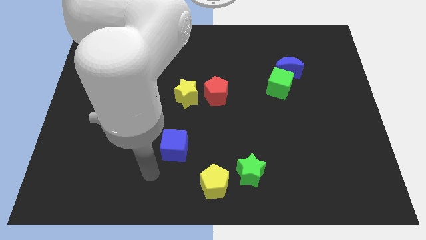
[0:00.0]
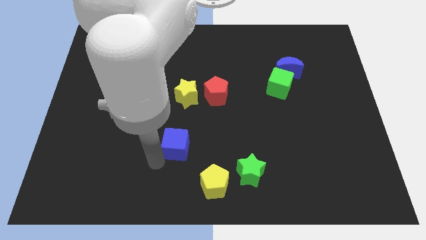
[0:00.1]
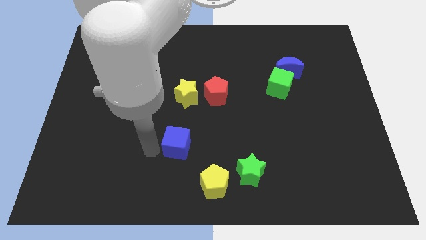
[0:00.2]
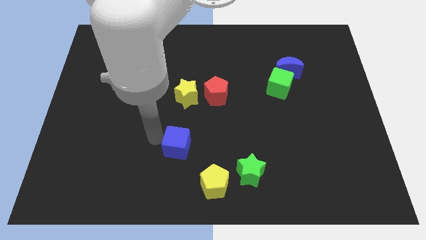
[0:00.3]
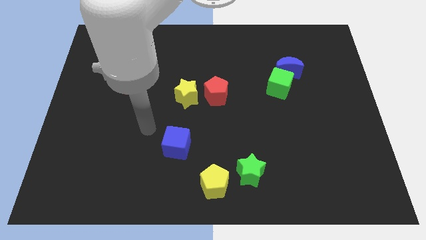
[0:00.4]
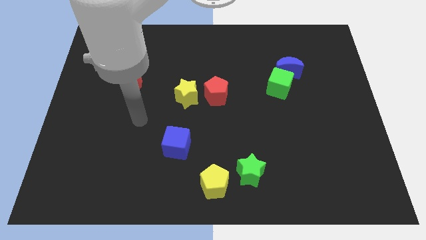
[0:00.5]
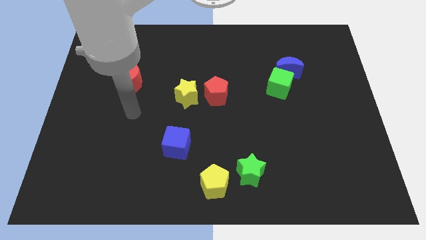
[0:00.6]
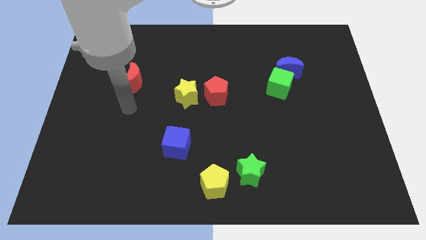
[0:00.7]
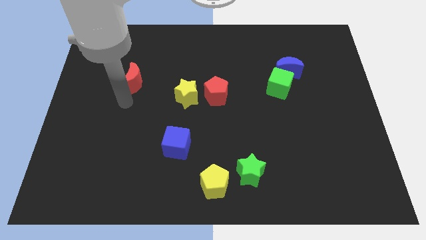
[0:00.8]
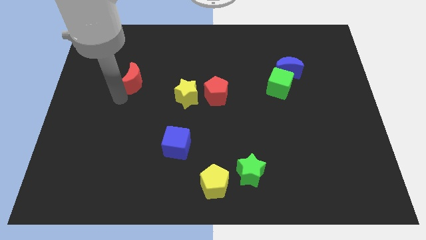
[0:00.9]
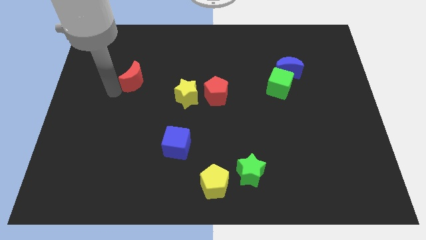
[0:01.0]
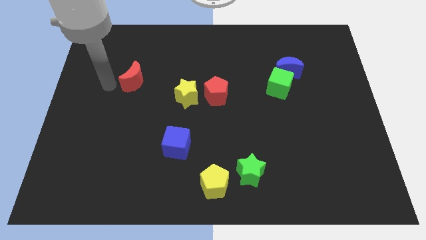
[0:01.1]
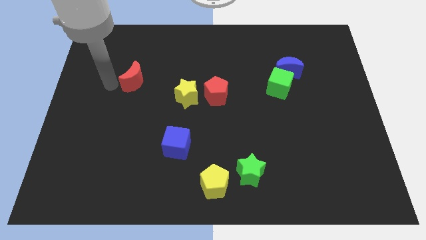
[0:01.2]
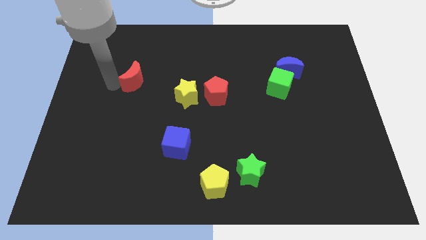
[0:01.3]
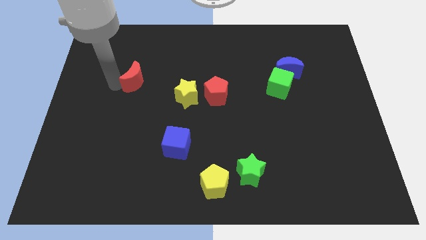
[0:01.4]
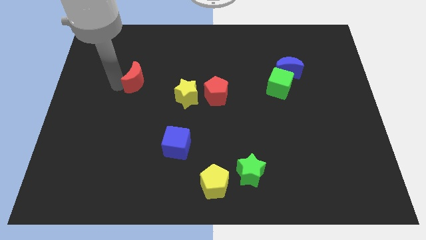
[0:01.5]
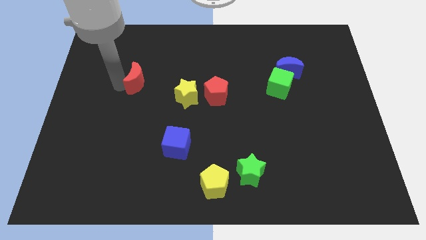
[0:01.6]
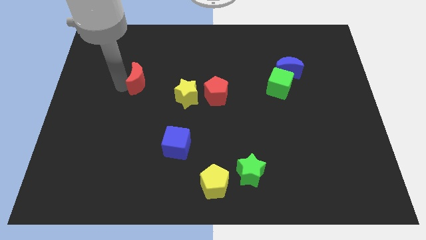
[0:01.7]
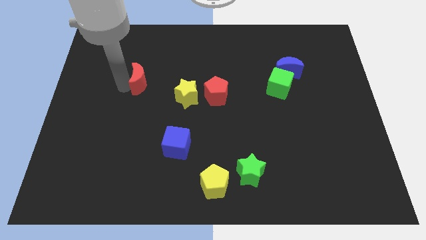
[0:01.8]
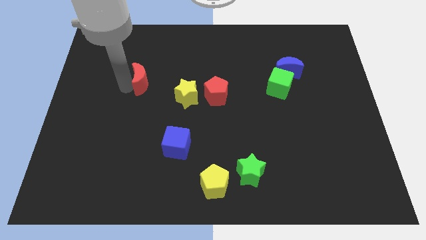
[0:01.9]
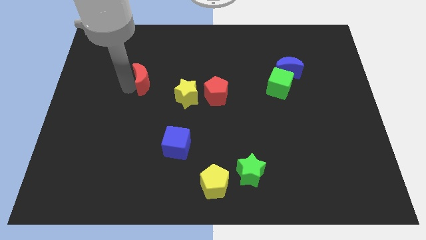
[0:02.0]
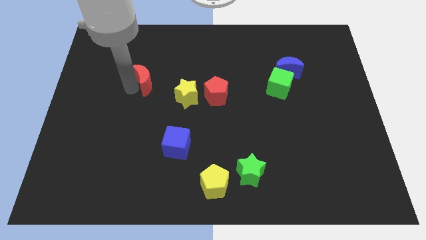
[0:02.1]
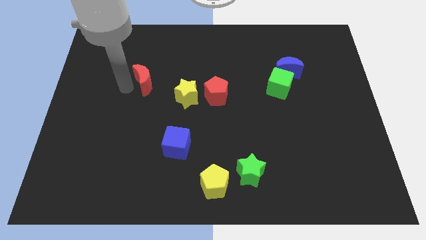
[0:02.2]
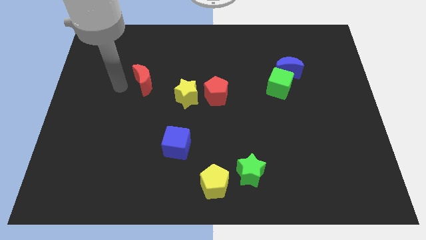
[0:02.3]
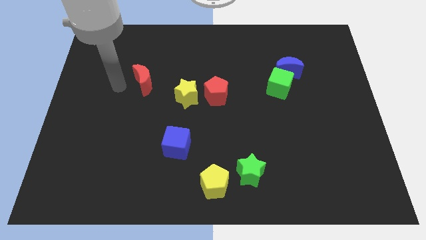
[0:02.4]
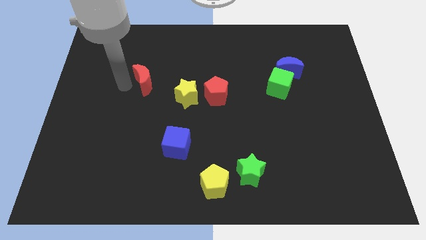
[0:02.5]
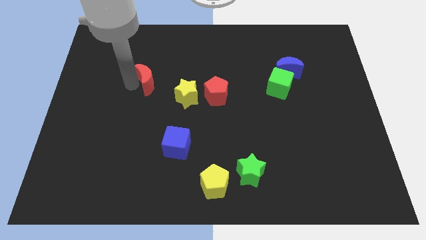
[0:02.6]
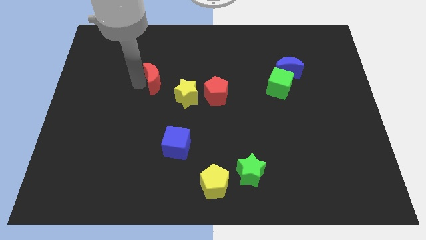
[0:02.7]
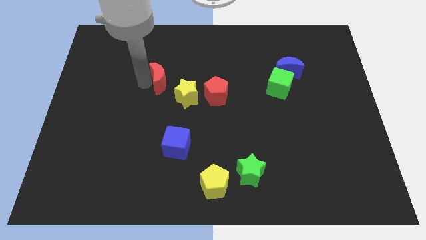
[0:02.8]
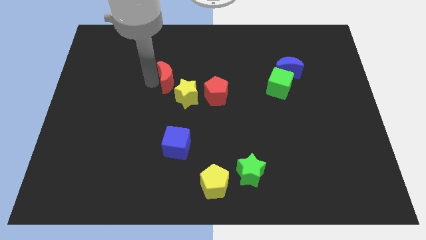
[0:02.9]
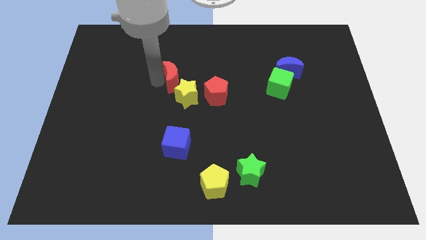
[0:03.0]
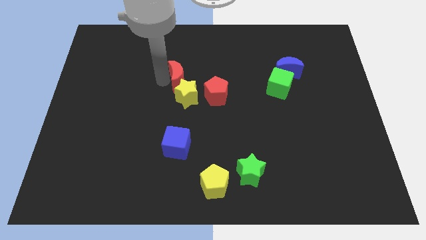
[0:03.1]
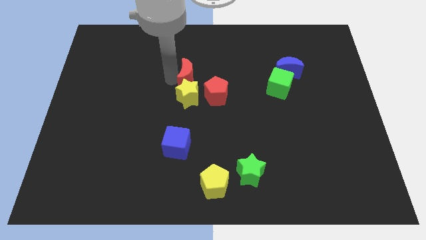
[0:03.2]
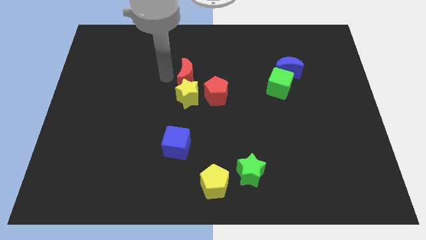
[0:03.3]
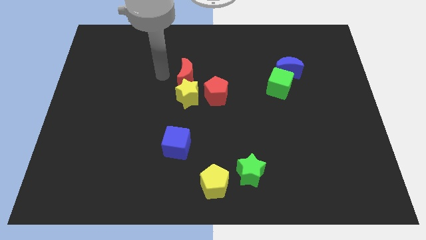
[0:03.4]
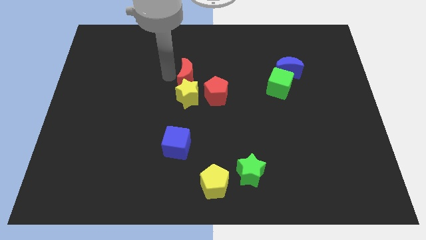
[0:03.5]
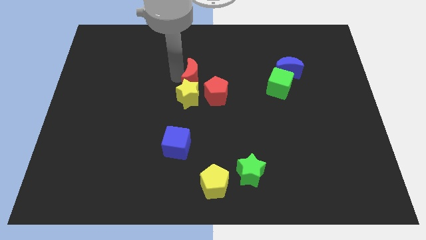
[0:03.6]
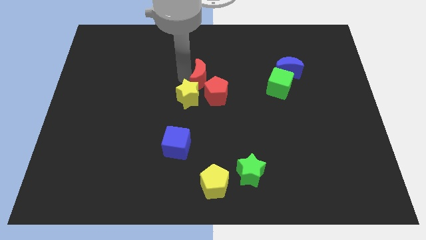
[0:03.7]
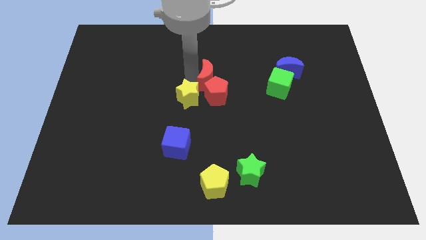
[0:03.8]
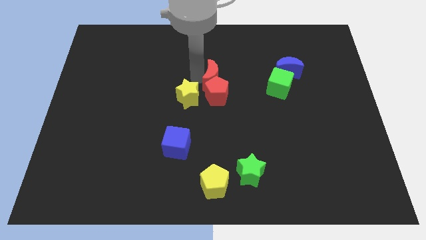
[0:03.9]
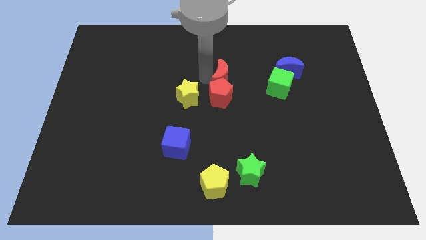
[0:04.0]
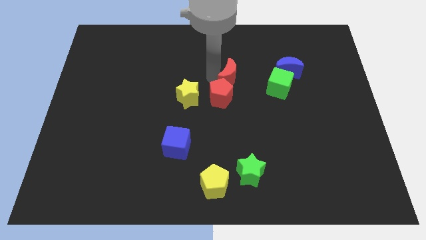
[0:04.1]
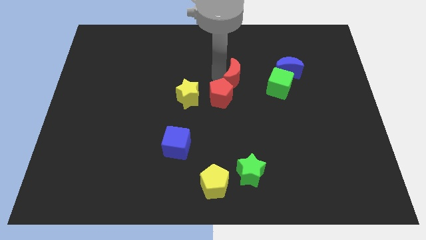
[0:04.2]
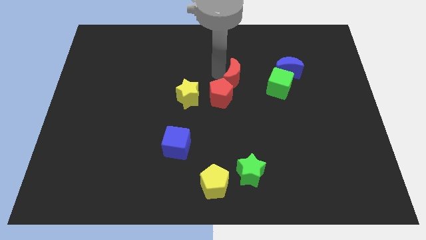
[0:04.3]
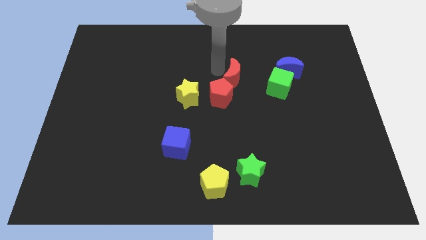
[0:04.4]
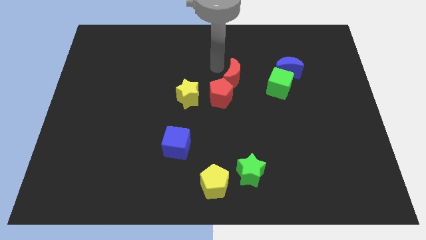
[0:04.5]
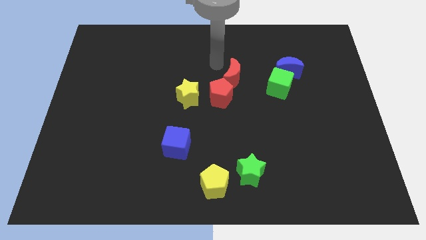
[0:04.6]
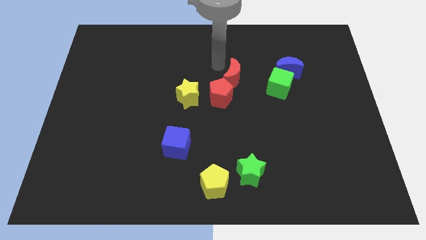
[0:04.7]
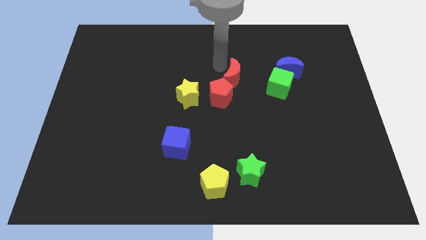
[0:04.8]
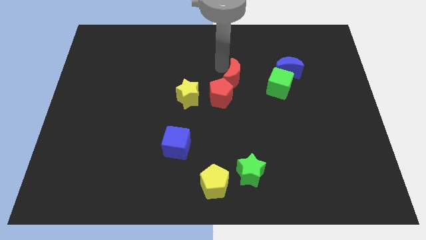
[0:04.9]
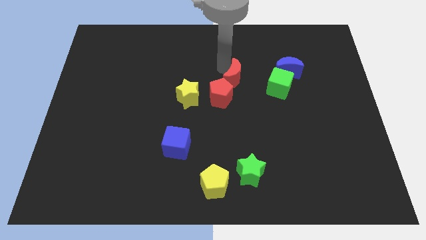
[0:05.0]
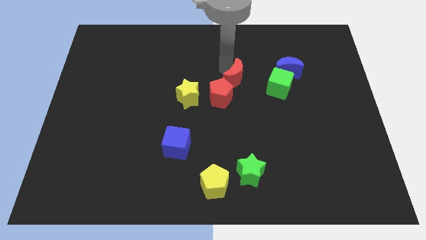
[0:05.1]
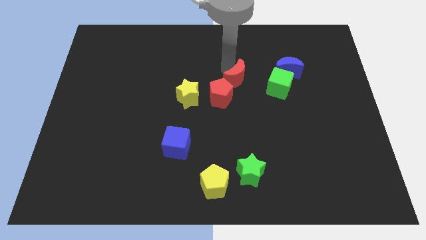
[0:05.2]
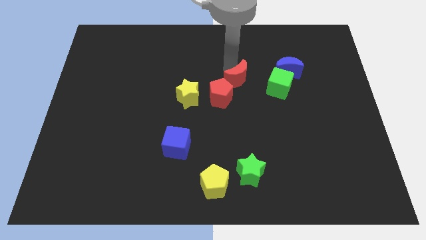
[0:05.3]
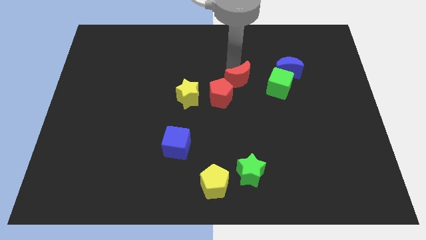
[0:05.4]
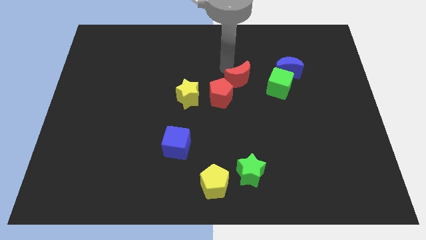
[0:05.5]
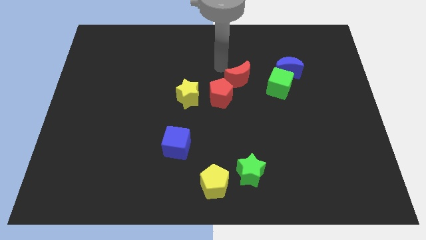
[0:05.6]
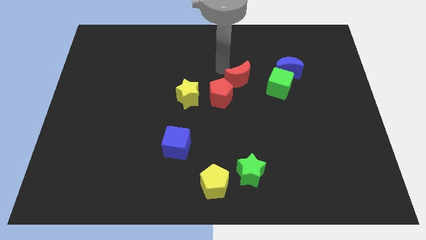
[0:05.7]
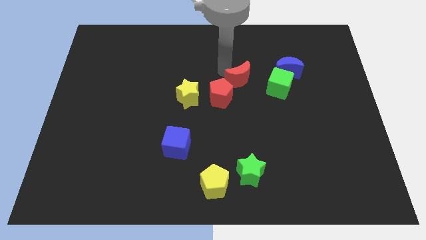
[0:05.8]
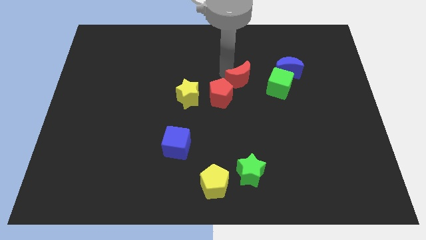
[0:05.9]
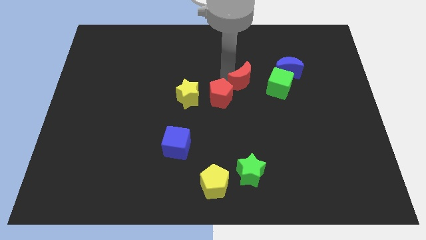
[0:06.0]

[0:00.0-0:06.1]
move the red moon to the right of the red pentagon
